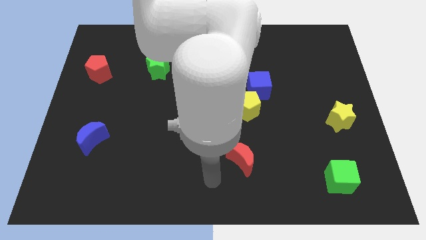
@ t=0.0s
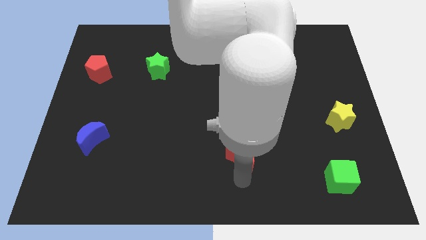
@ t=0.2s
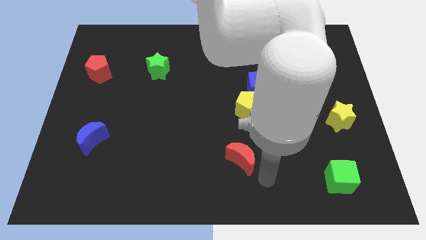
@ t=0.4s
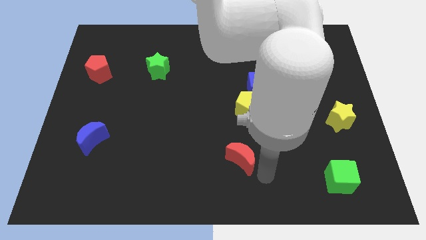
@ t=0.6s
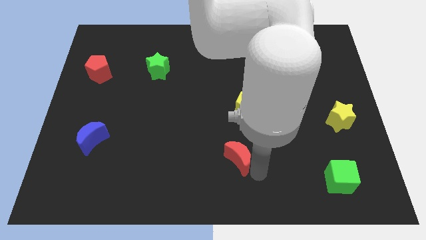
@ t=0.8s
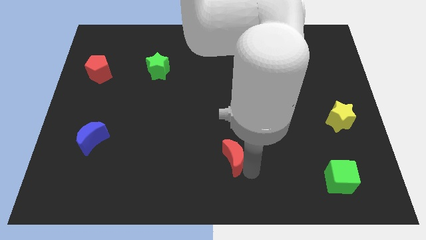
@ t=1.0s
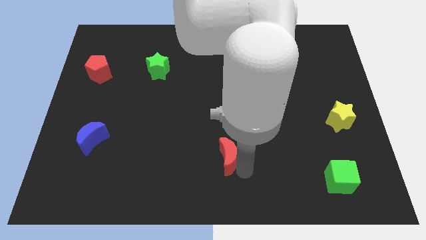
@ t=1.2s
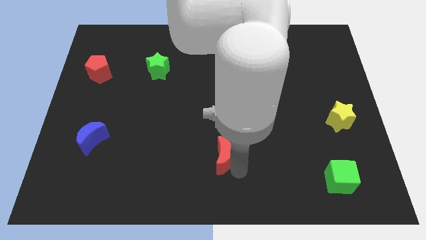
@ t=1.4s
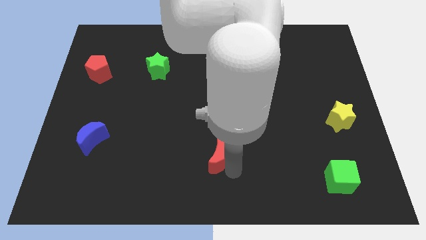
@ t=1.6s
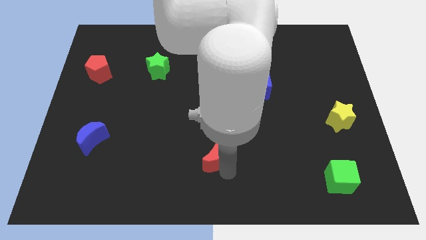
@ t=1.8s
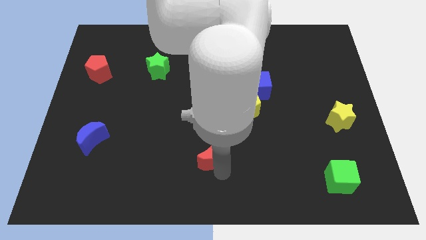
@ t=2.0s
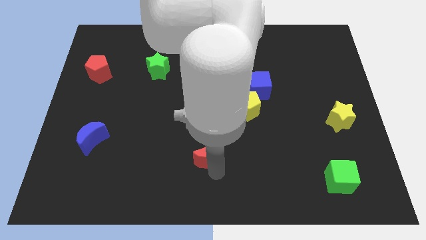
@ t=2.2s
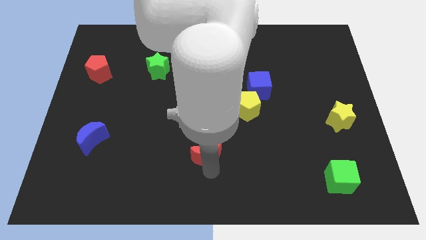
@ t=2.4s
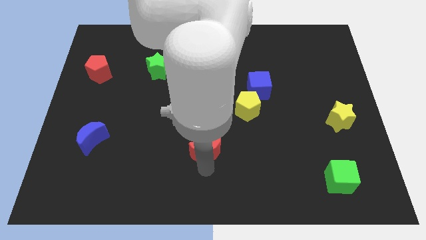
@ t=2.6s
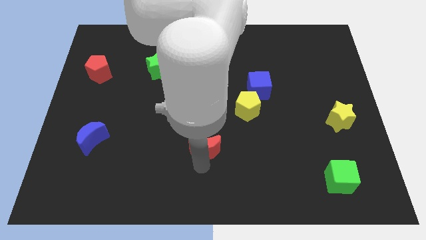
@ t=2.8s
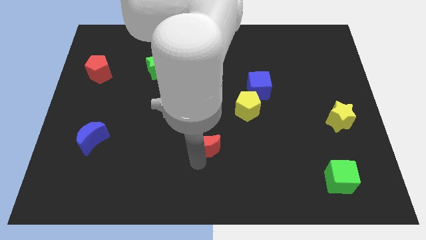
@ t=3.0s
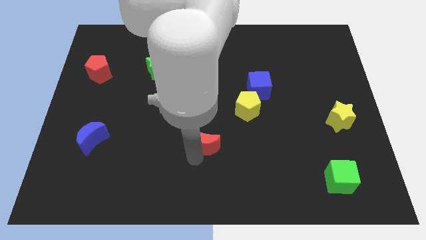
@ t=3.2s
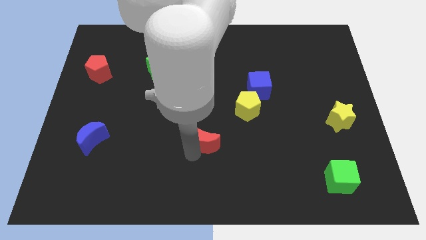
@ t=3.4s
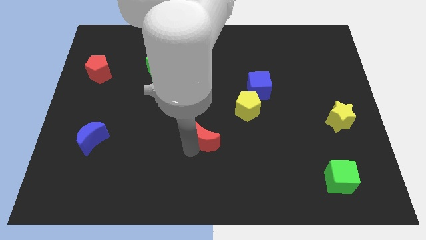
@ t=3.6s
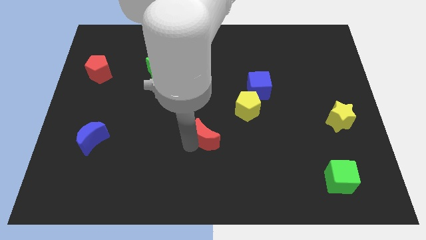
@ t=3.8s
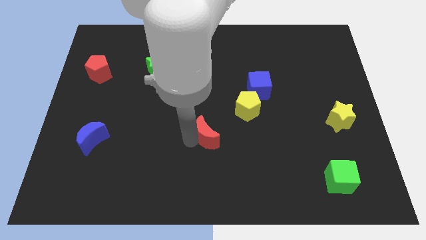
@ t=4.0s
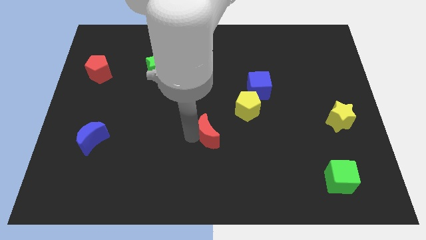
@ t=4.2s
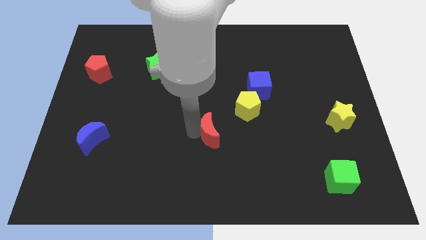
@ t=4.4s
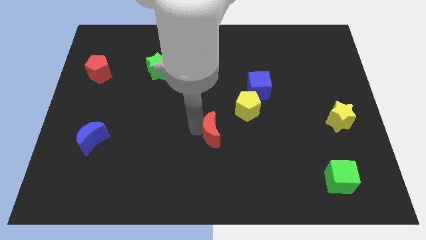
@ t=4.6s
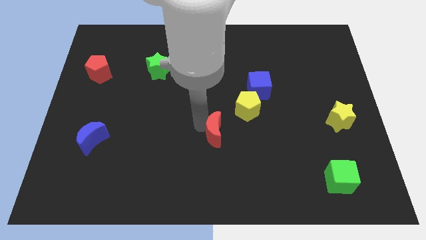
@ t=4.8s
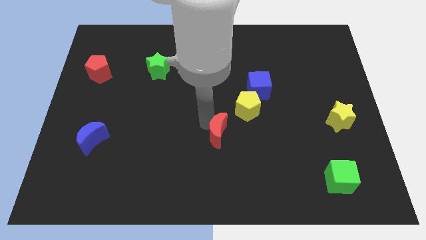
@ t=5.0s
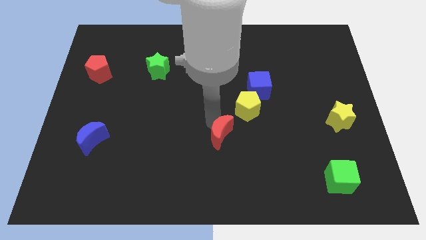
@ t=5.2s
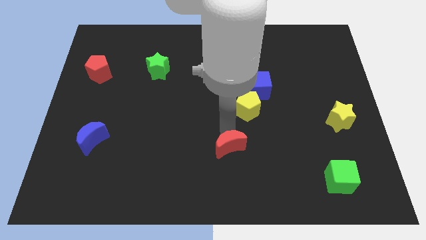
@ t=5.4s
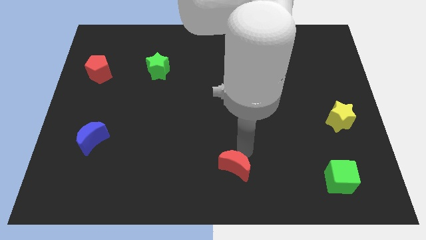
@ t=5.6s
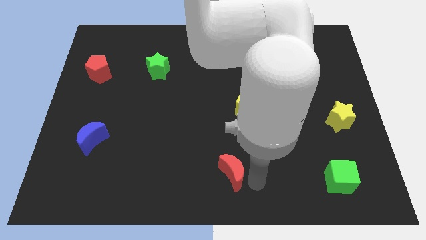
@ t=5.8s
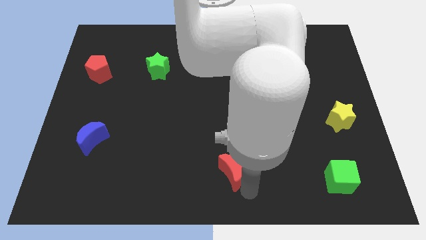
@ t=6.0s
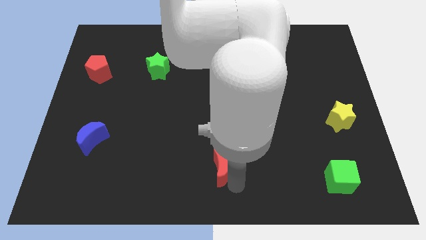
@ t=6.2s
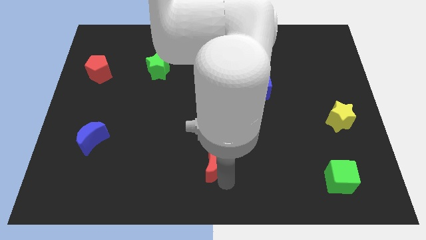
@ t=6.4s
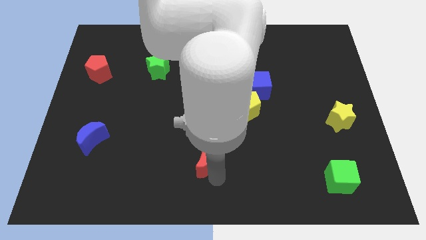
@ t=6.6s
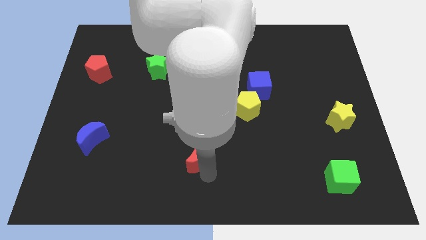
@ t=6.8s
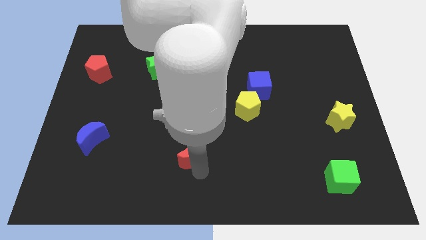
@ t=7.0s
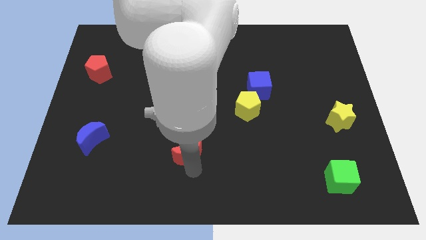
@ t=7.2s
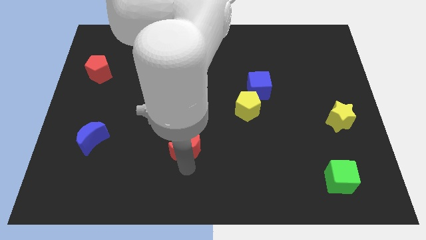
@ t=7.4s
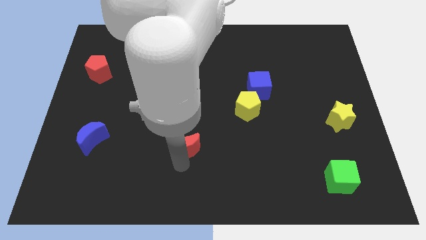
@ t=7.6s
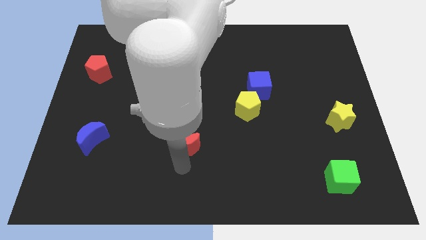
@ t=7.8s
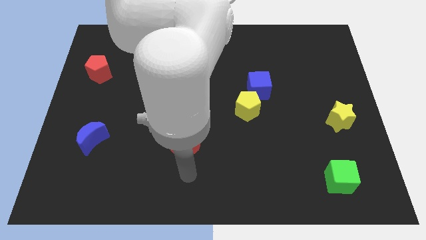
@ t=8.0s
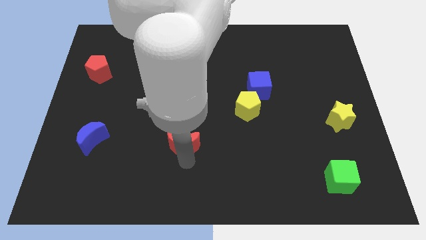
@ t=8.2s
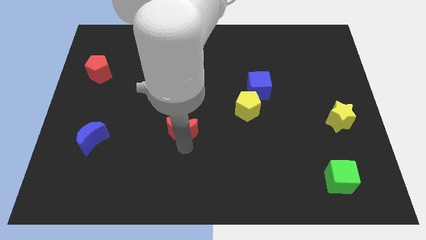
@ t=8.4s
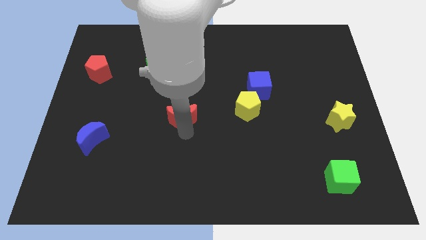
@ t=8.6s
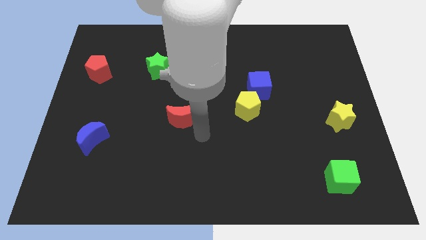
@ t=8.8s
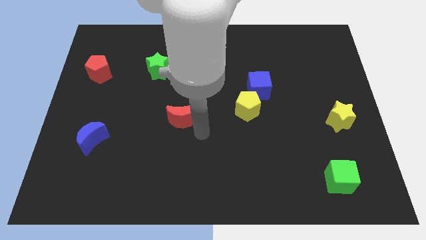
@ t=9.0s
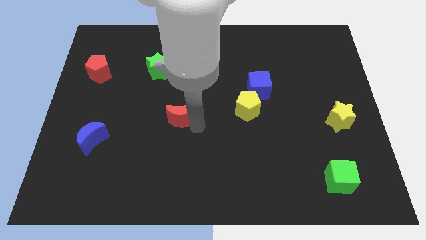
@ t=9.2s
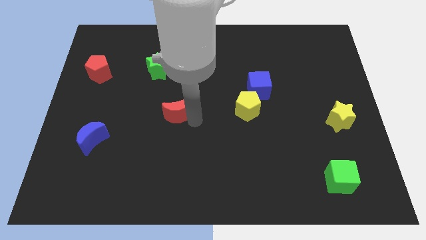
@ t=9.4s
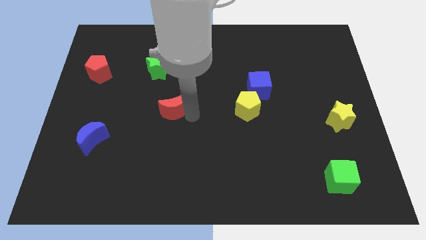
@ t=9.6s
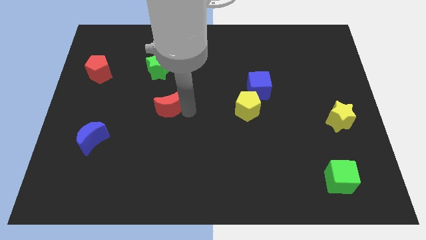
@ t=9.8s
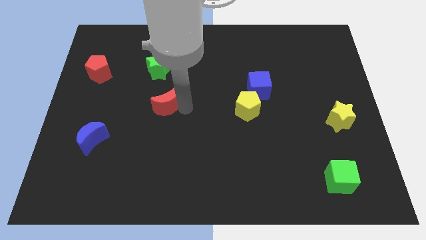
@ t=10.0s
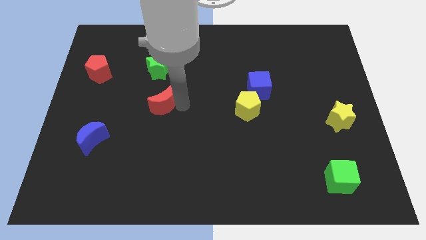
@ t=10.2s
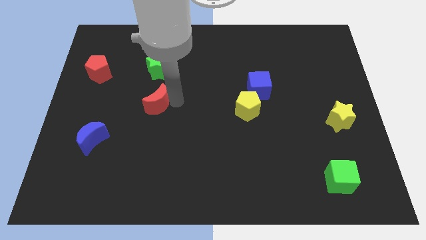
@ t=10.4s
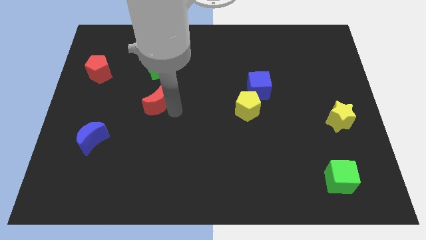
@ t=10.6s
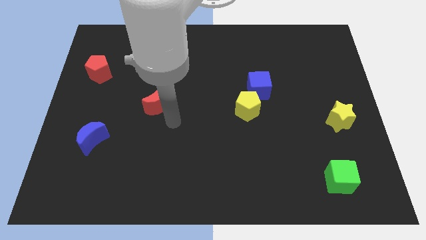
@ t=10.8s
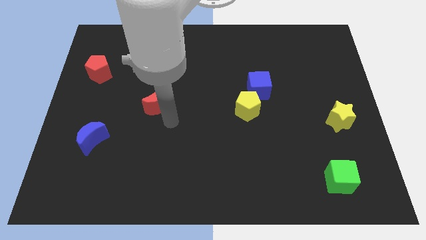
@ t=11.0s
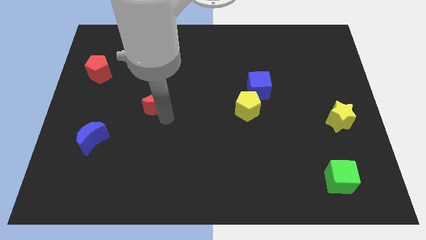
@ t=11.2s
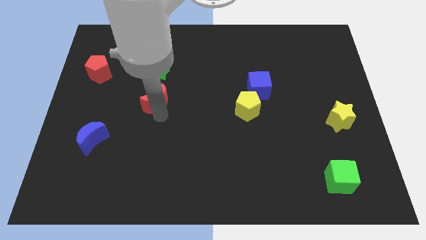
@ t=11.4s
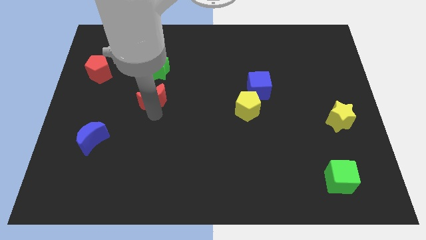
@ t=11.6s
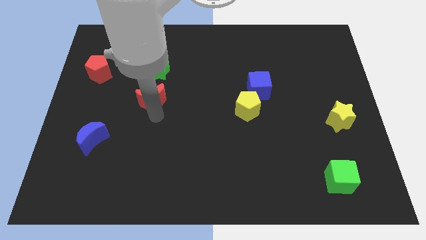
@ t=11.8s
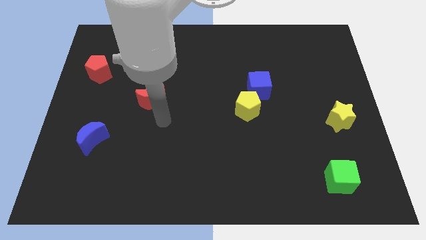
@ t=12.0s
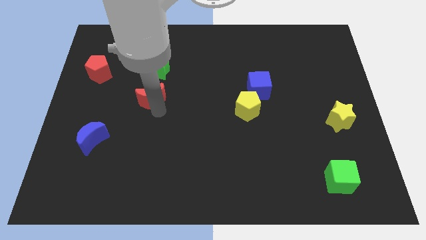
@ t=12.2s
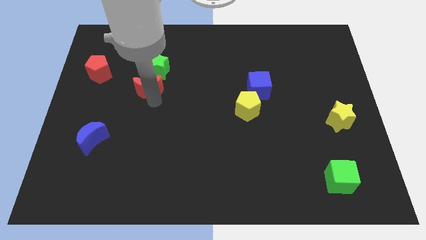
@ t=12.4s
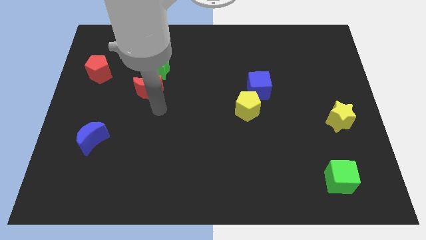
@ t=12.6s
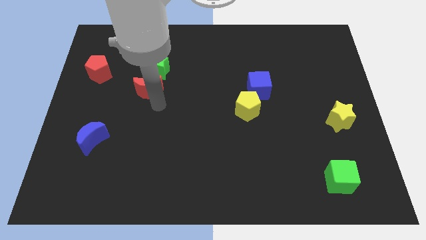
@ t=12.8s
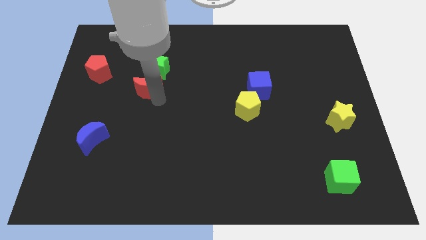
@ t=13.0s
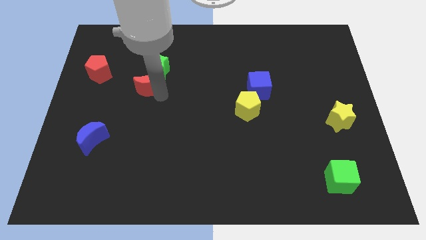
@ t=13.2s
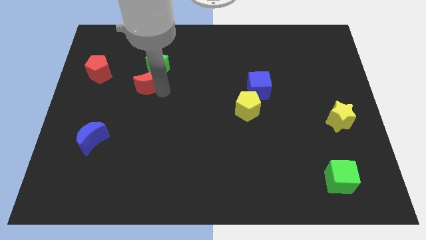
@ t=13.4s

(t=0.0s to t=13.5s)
put the red moon to the right side of the red pentagon
